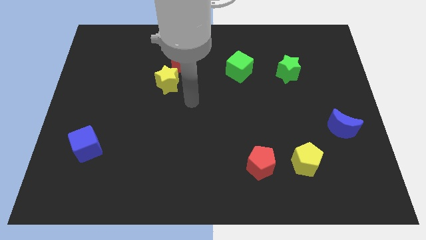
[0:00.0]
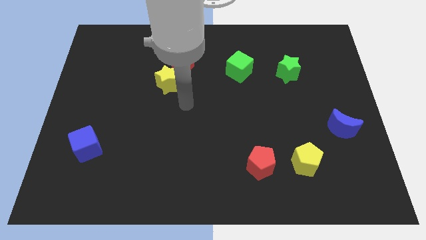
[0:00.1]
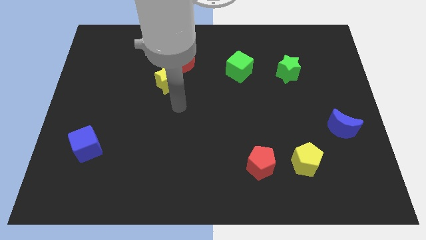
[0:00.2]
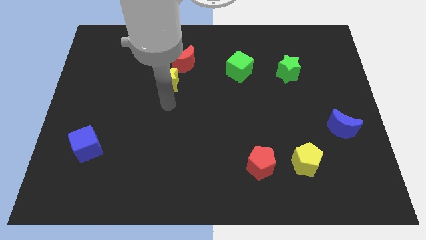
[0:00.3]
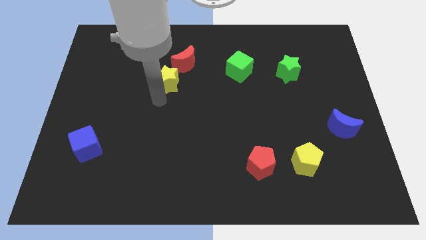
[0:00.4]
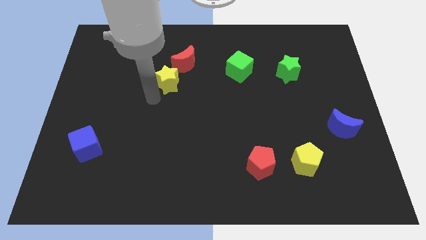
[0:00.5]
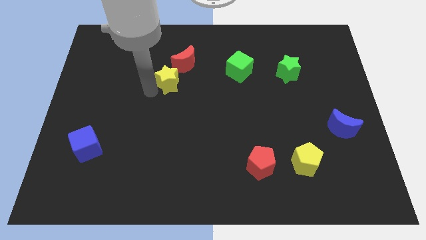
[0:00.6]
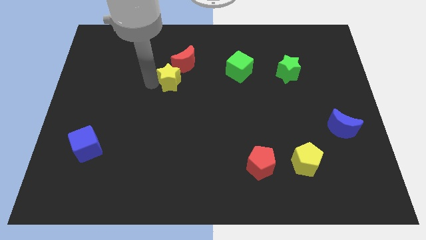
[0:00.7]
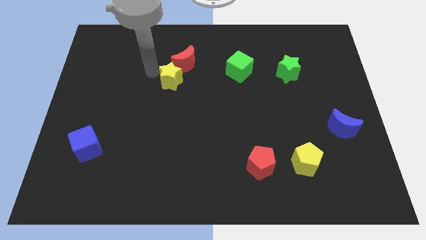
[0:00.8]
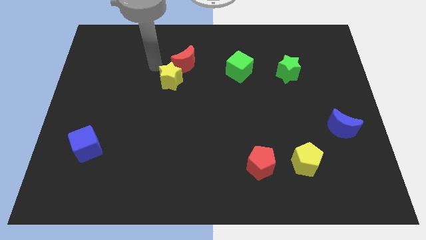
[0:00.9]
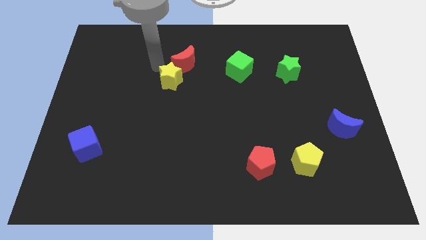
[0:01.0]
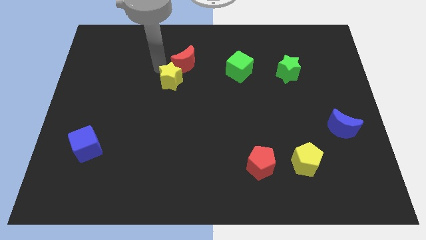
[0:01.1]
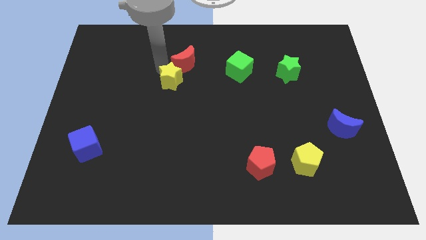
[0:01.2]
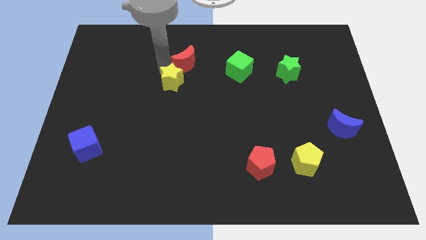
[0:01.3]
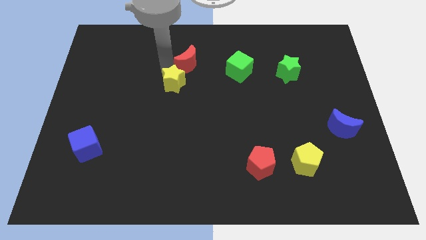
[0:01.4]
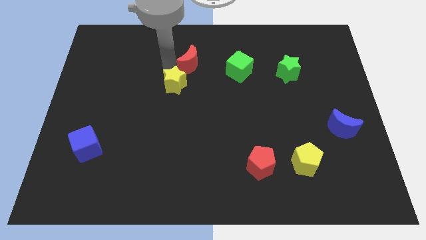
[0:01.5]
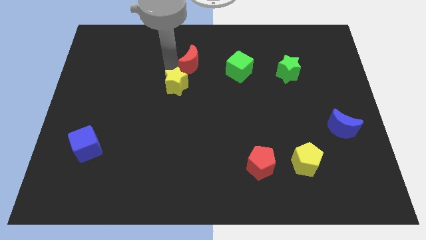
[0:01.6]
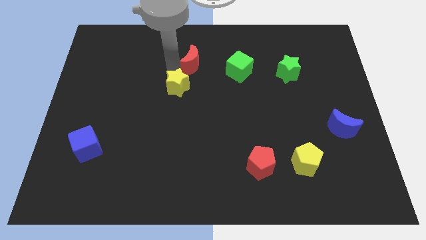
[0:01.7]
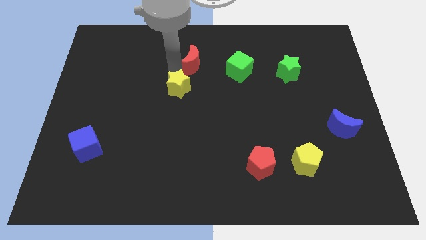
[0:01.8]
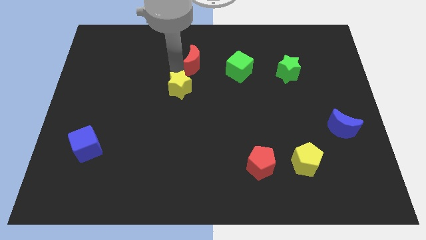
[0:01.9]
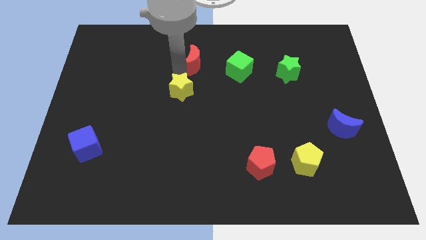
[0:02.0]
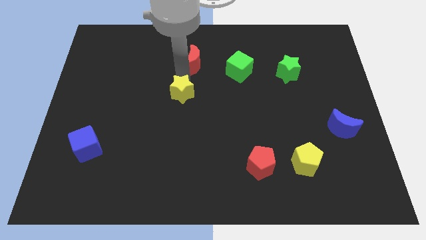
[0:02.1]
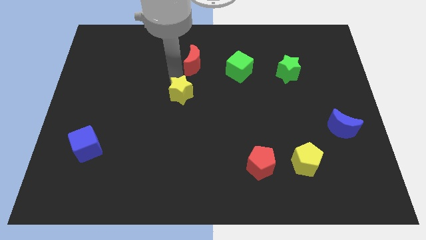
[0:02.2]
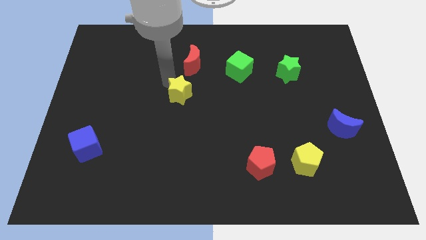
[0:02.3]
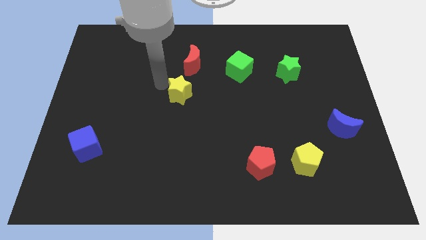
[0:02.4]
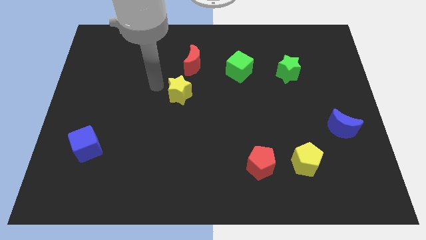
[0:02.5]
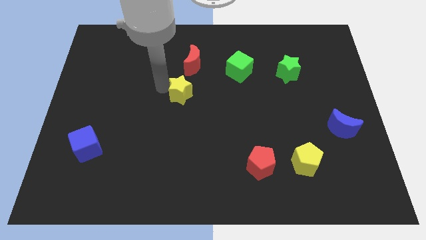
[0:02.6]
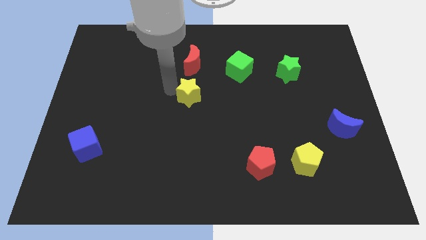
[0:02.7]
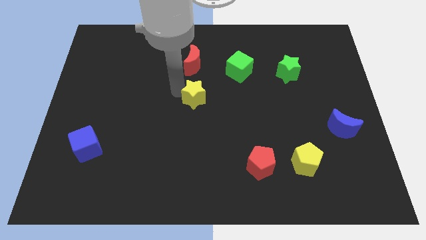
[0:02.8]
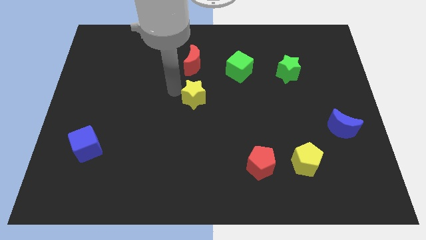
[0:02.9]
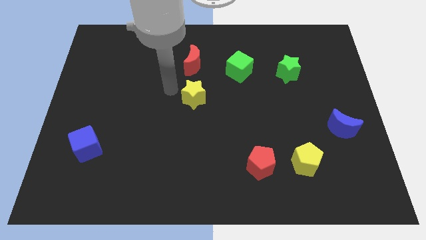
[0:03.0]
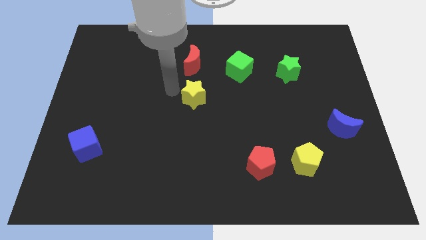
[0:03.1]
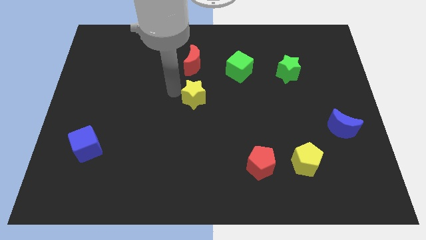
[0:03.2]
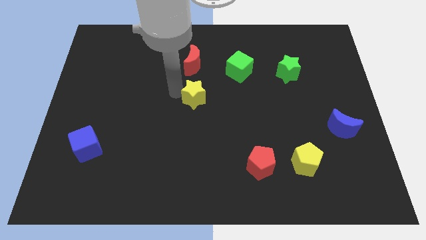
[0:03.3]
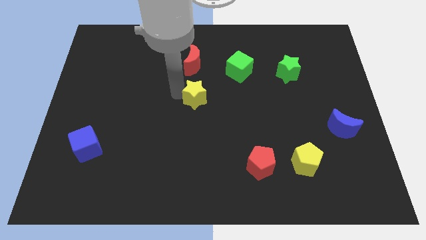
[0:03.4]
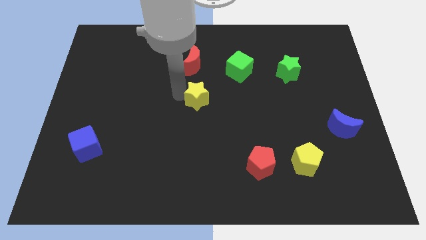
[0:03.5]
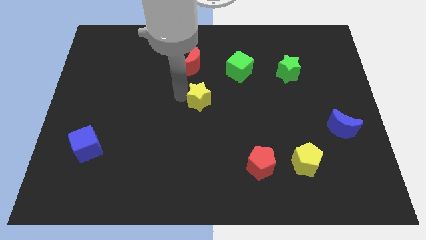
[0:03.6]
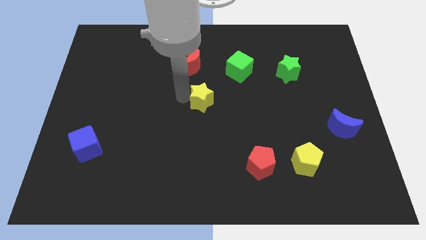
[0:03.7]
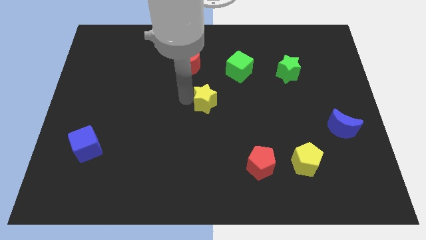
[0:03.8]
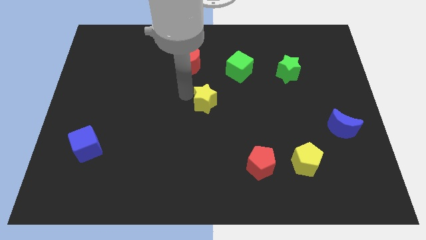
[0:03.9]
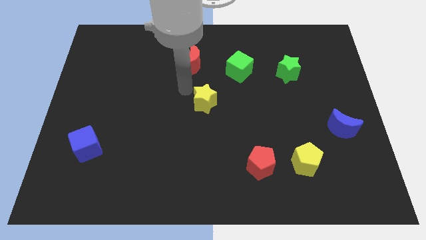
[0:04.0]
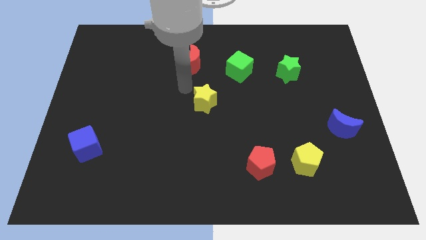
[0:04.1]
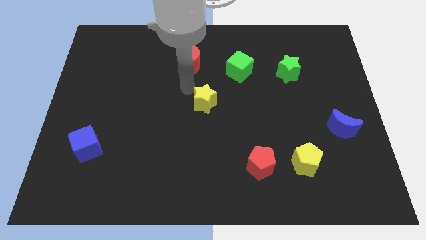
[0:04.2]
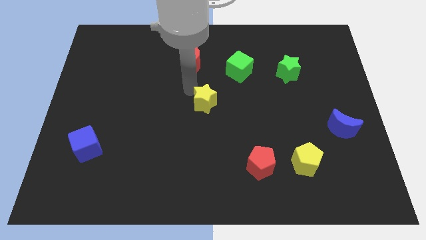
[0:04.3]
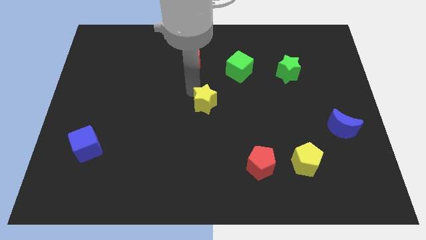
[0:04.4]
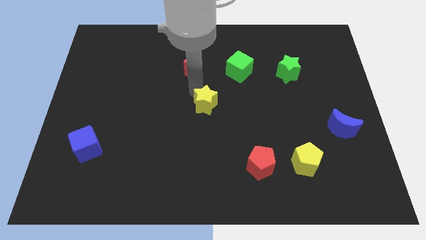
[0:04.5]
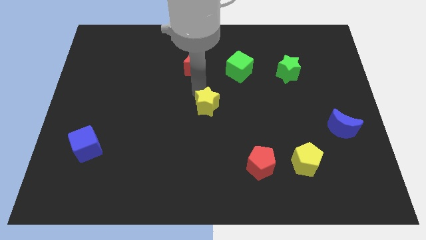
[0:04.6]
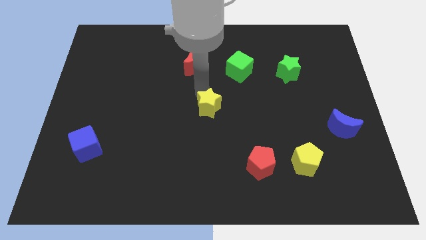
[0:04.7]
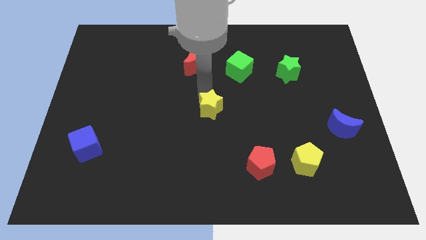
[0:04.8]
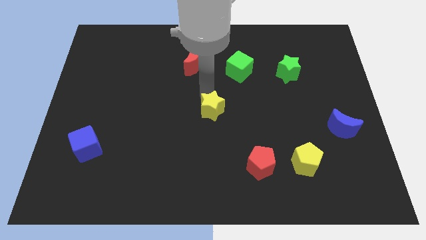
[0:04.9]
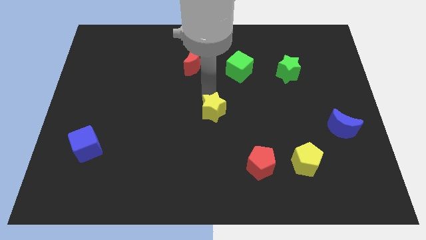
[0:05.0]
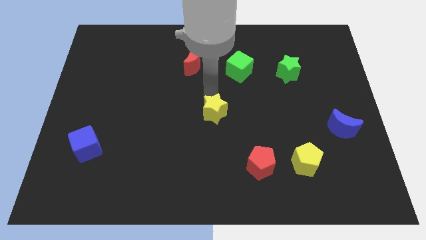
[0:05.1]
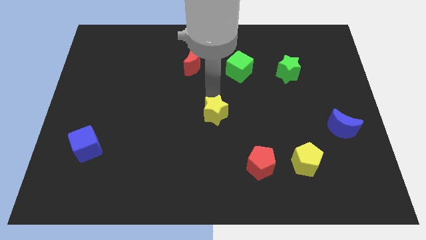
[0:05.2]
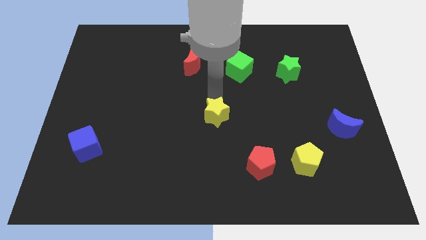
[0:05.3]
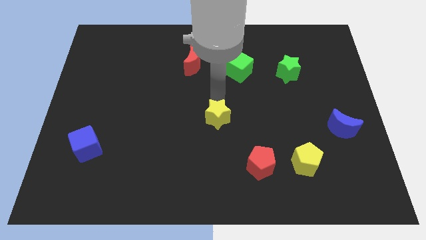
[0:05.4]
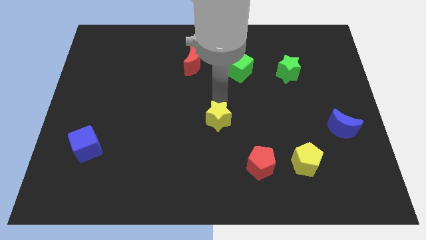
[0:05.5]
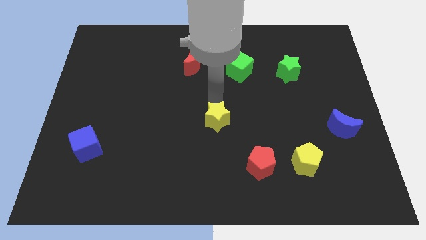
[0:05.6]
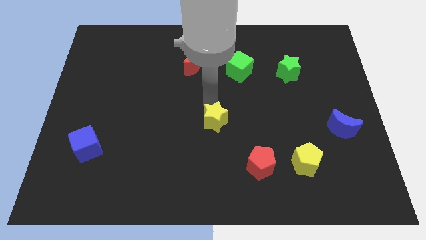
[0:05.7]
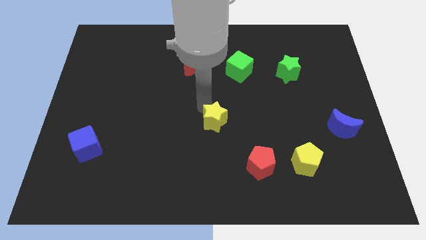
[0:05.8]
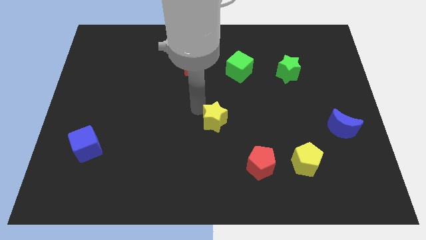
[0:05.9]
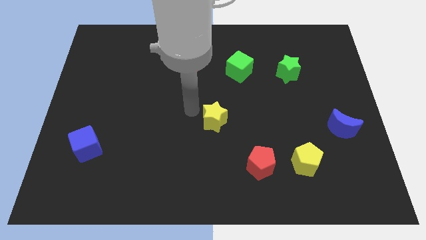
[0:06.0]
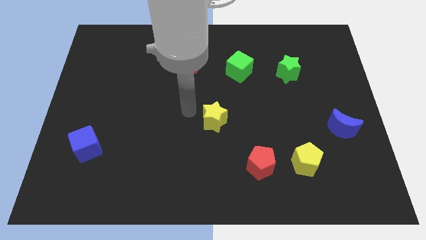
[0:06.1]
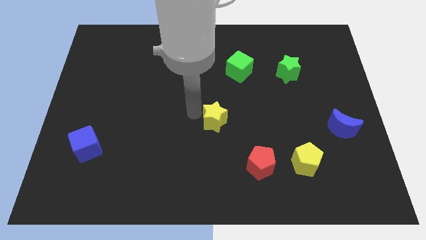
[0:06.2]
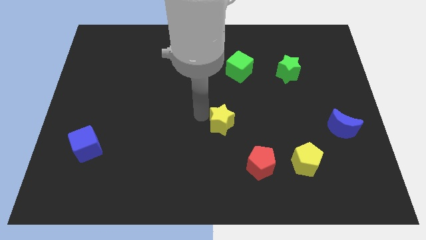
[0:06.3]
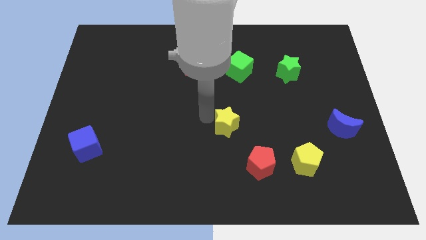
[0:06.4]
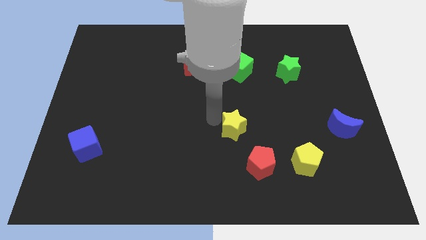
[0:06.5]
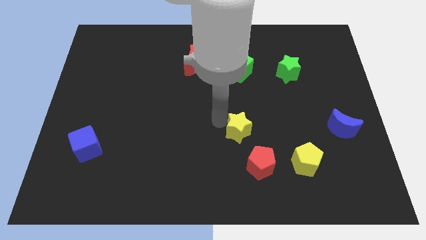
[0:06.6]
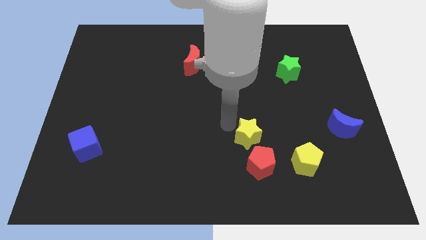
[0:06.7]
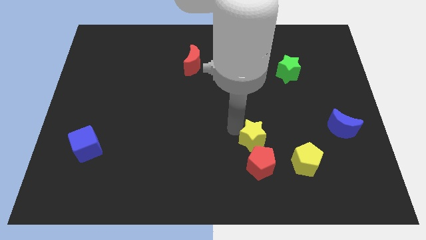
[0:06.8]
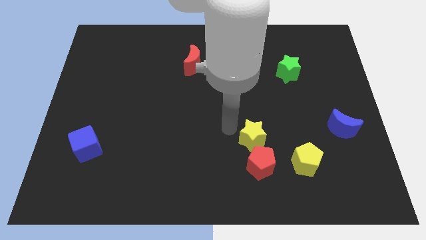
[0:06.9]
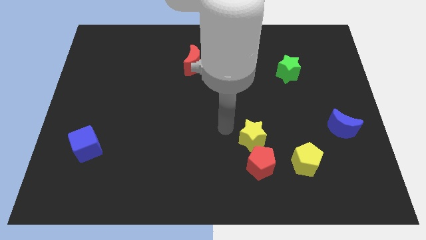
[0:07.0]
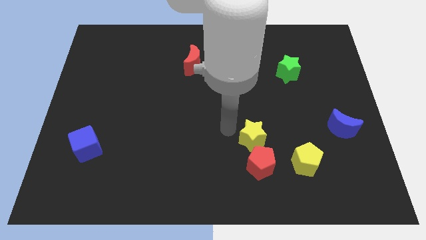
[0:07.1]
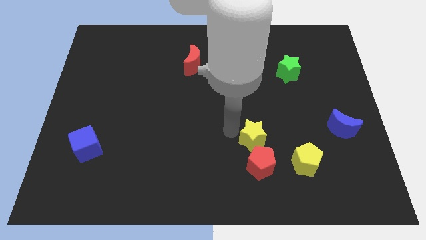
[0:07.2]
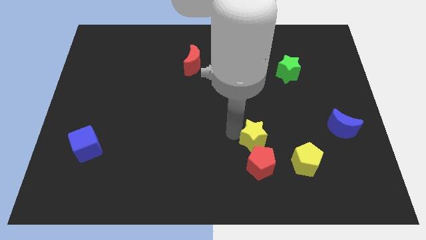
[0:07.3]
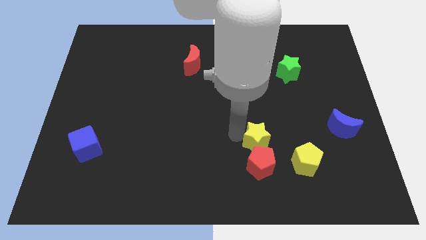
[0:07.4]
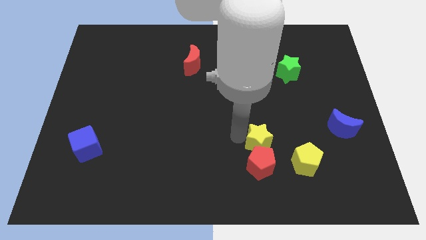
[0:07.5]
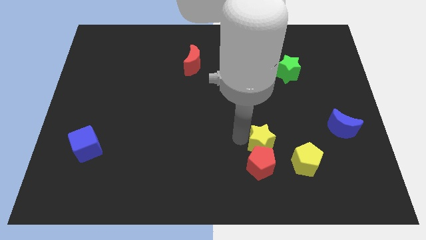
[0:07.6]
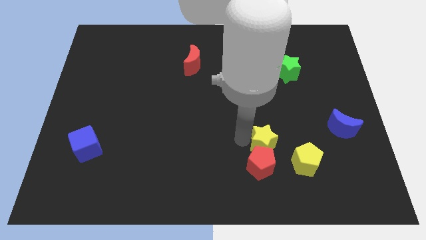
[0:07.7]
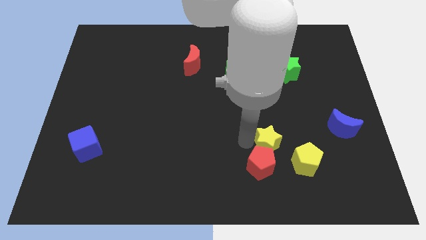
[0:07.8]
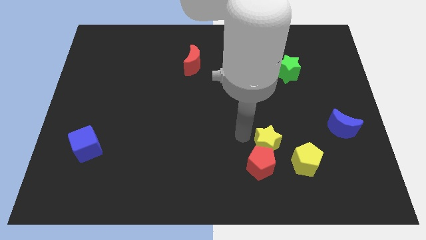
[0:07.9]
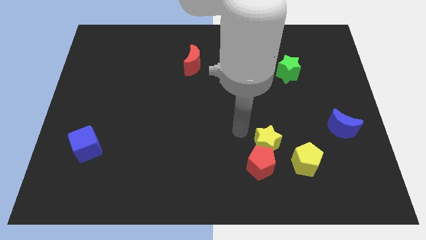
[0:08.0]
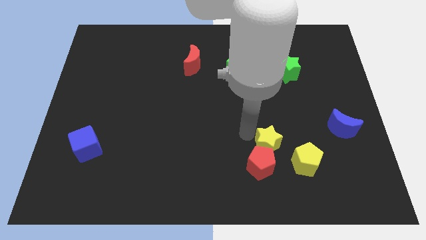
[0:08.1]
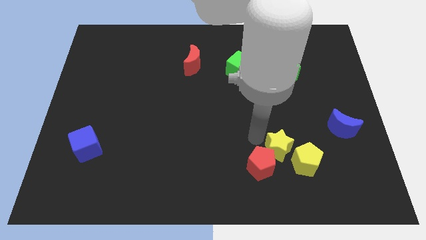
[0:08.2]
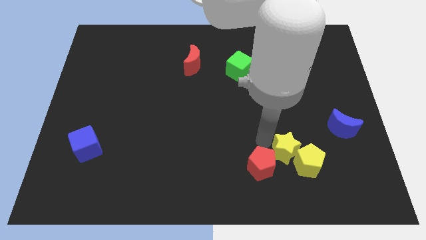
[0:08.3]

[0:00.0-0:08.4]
move the yellow star next to the yellow pentagon
